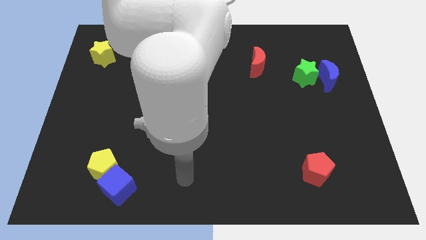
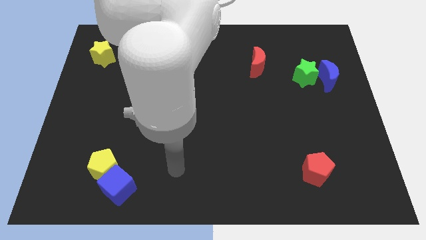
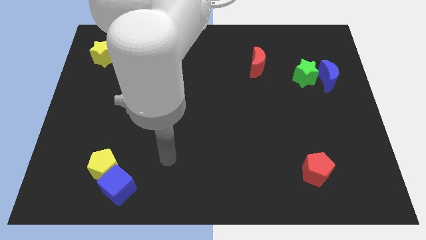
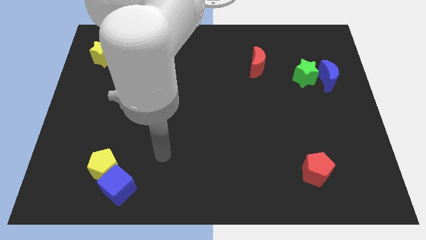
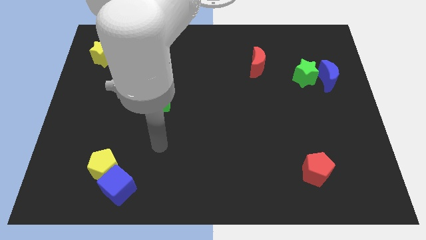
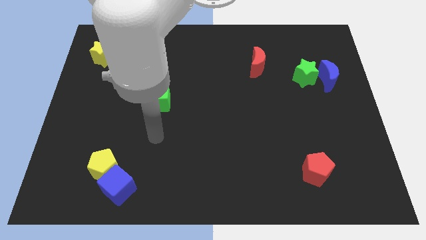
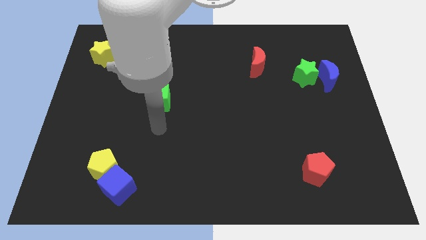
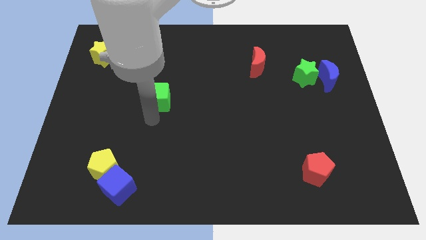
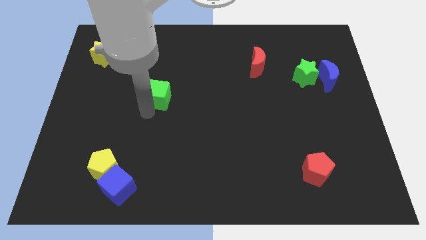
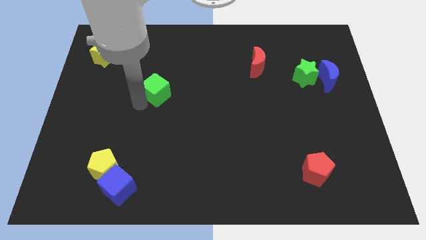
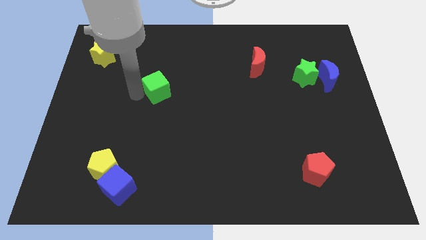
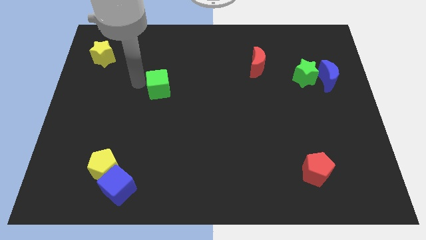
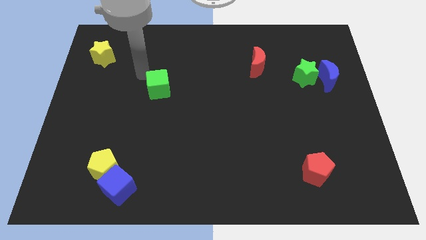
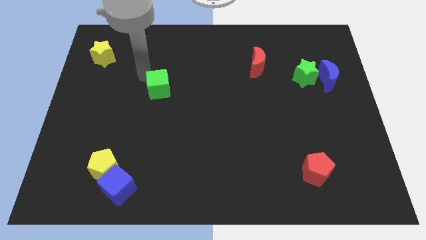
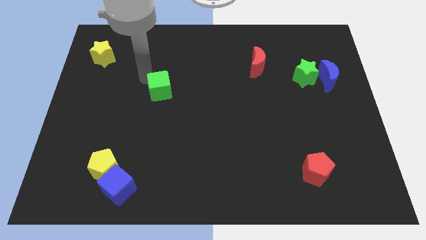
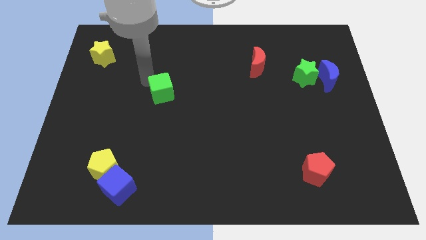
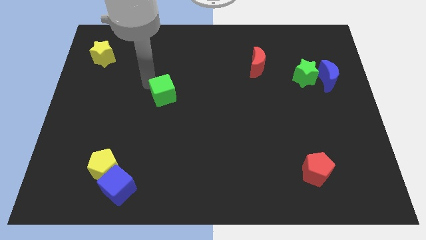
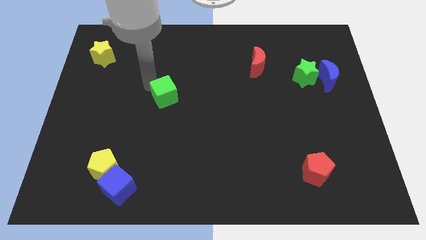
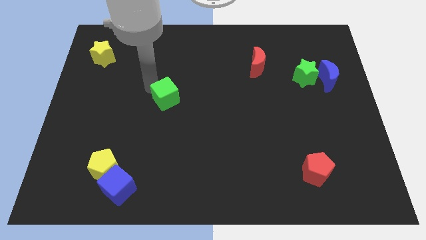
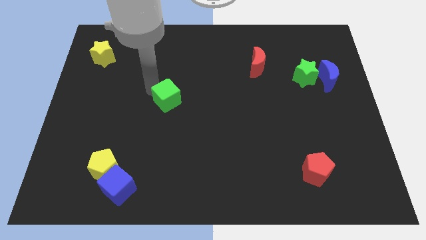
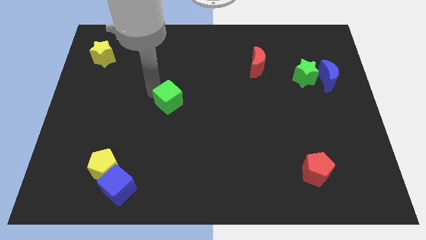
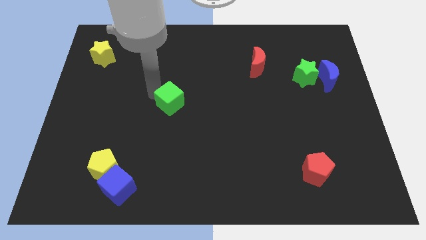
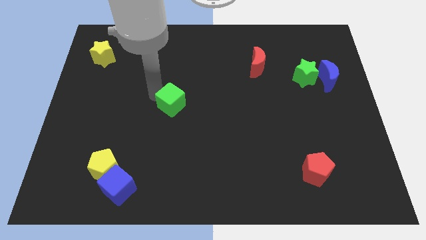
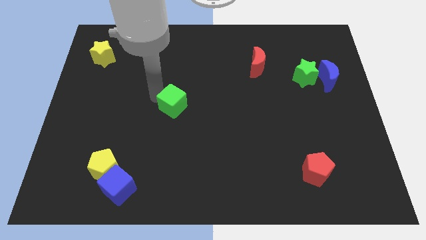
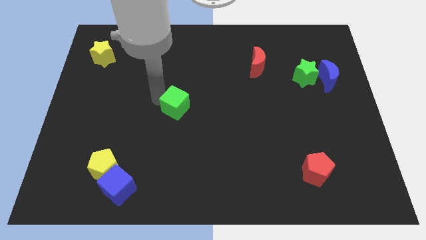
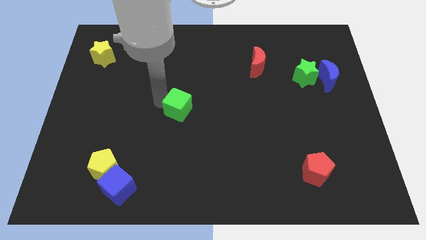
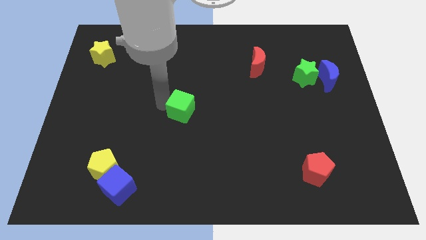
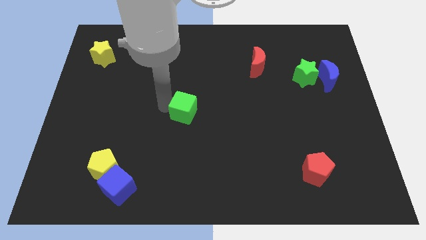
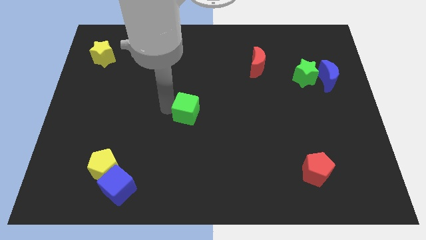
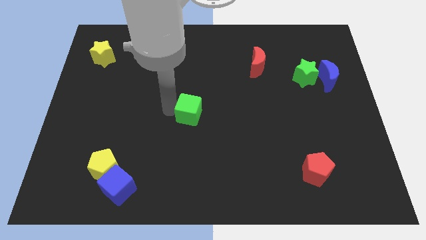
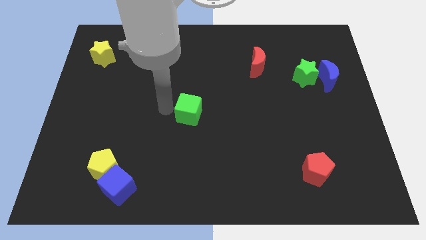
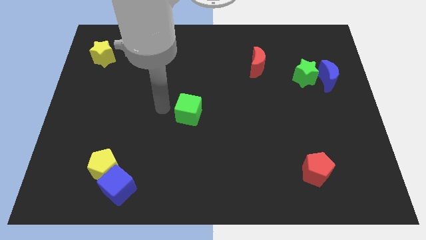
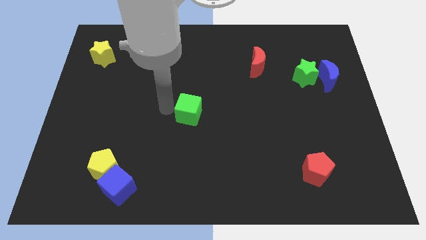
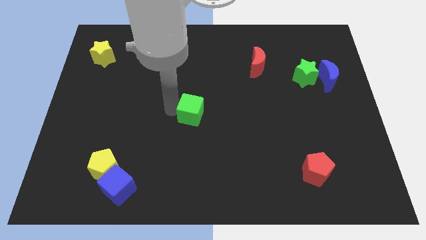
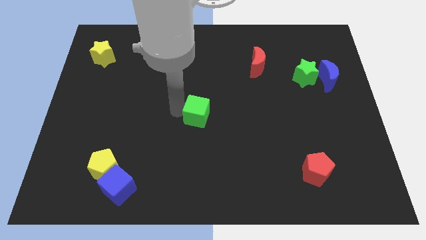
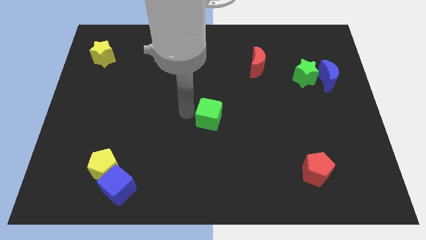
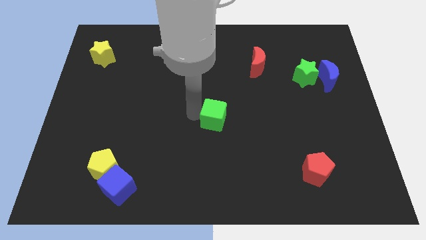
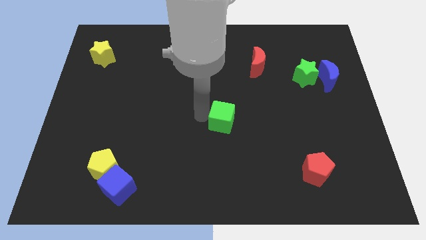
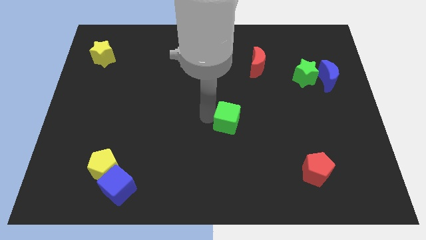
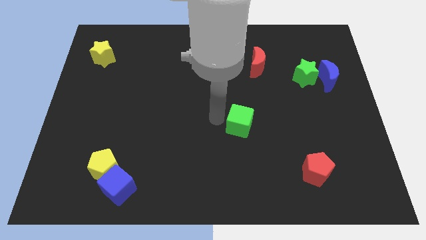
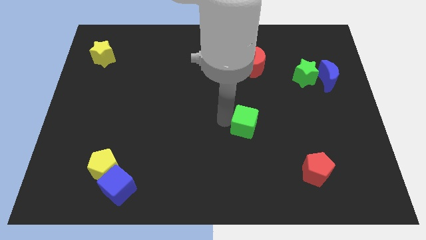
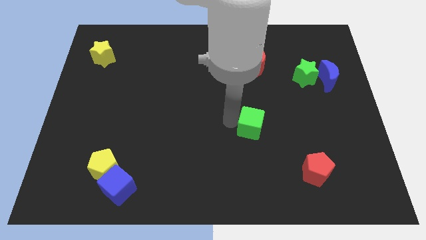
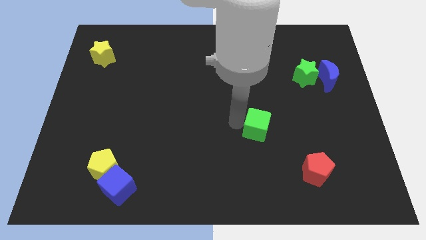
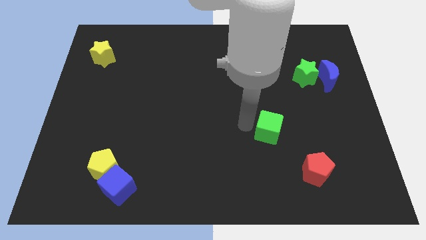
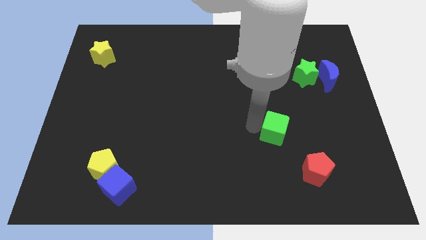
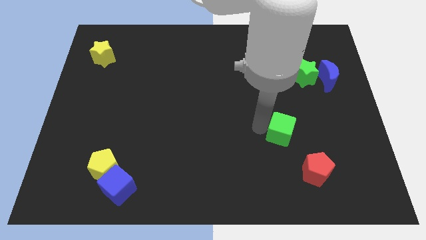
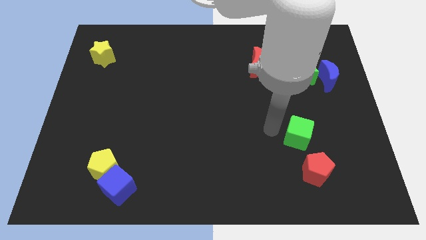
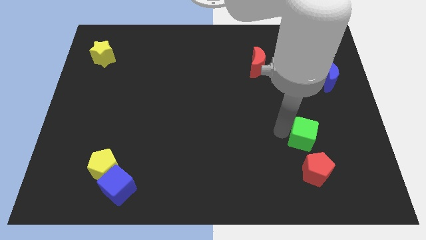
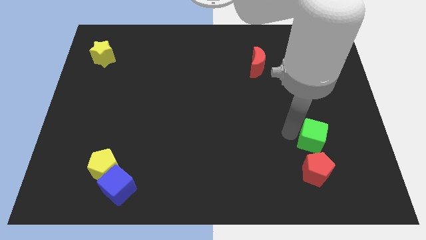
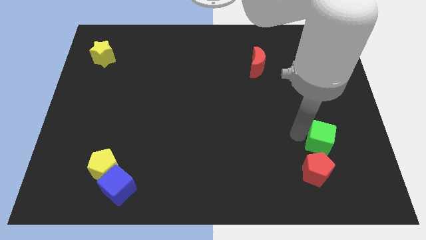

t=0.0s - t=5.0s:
move the green cube to the top right side of the red pentagon

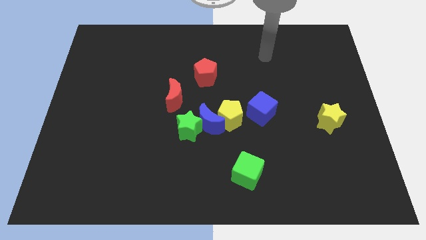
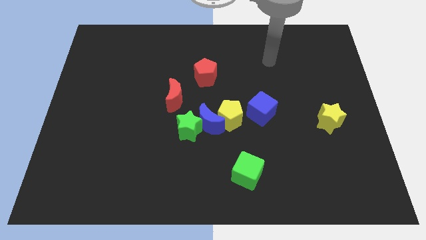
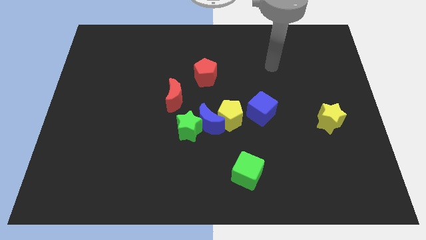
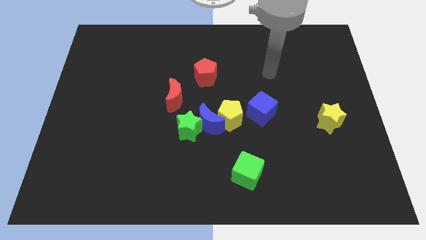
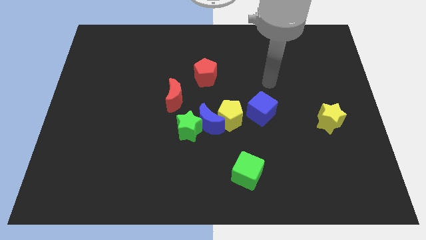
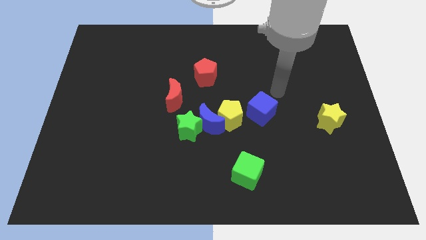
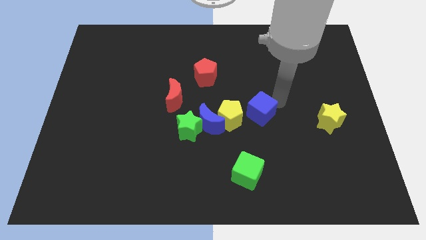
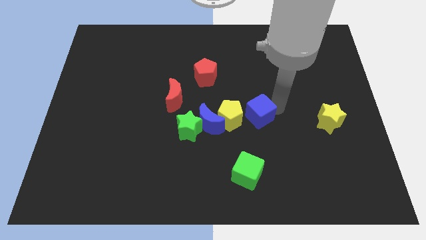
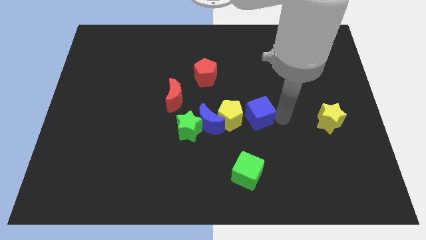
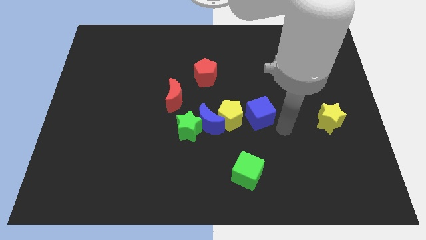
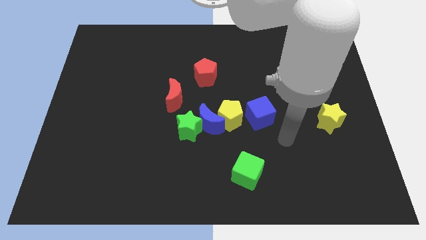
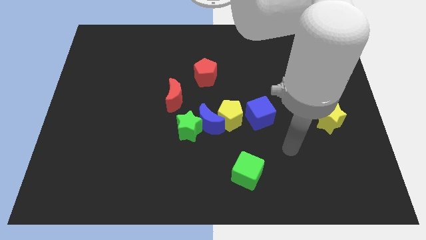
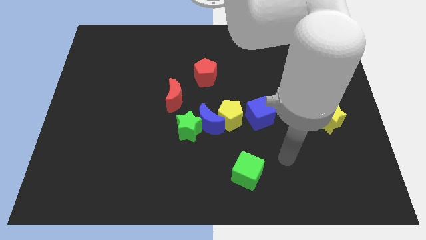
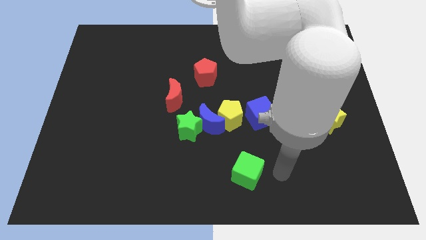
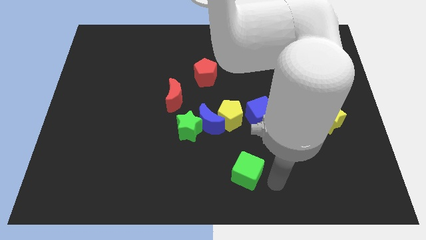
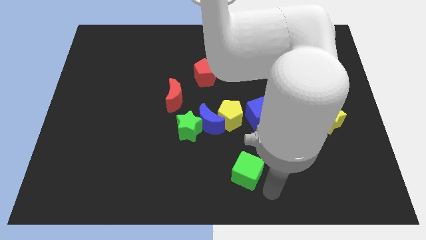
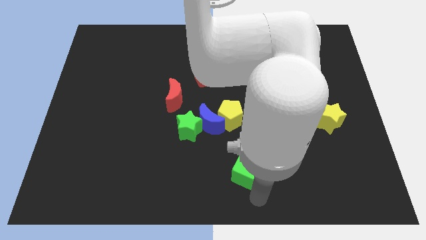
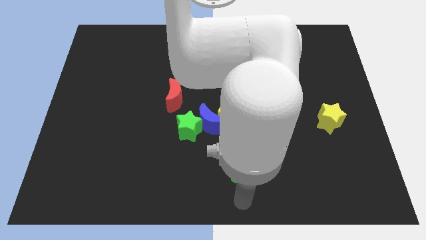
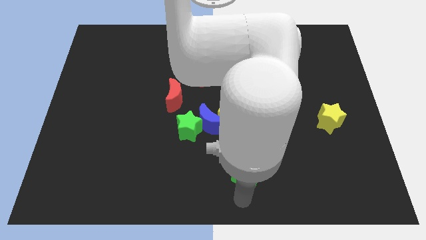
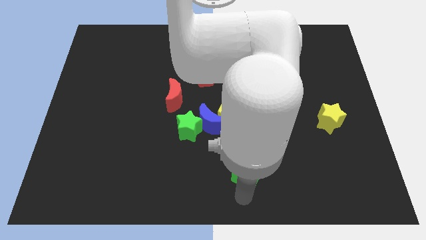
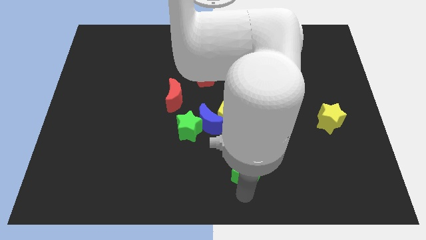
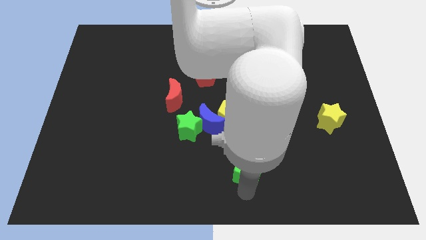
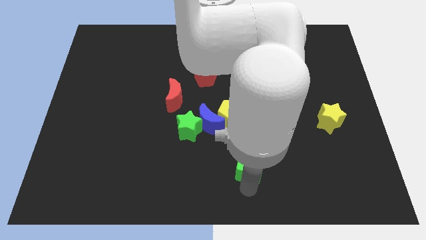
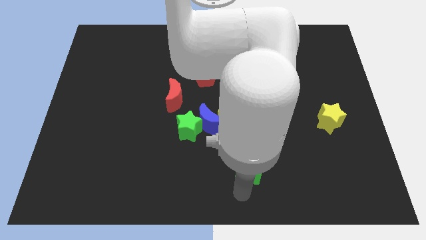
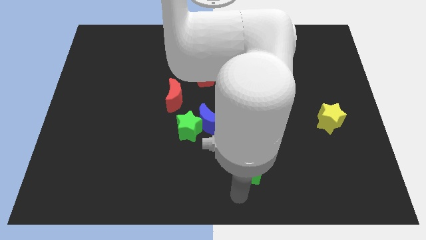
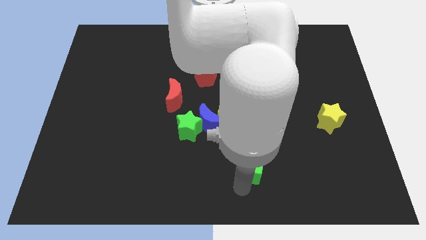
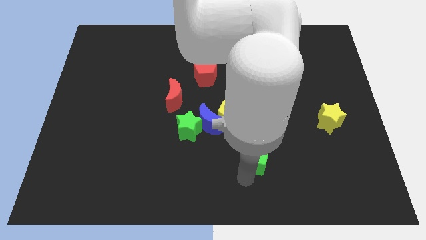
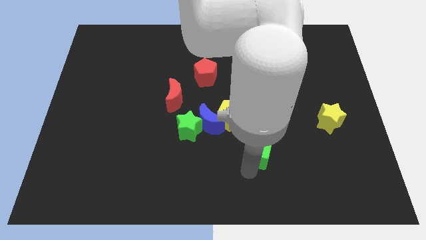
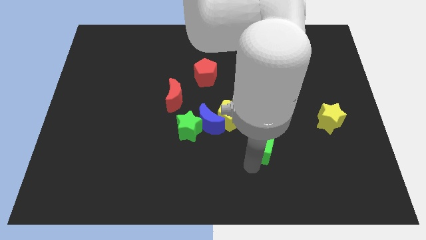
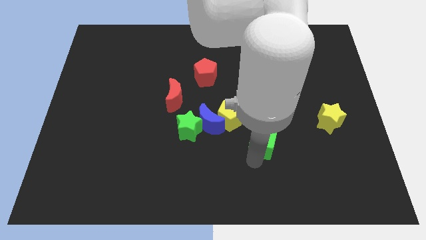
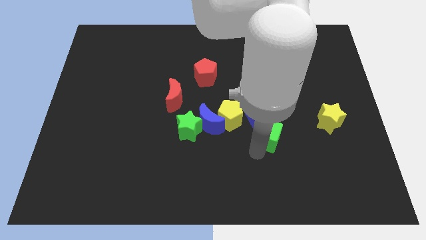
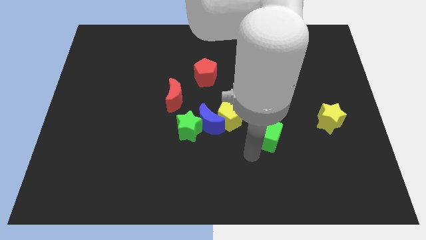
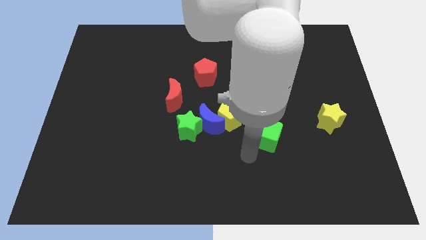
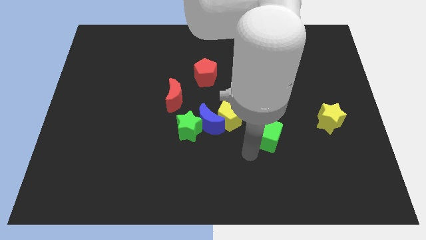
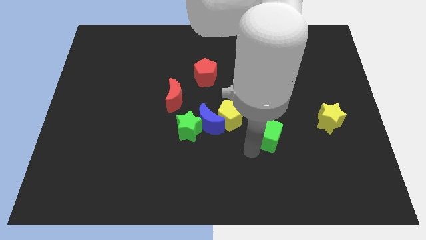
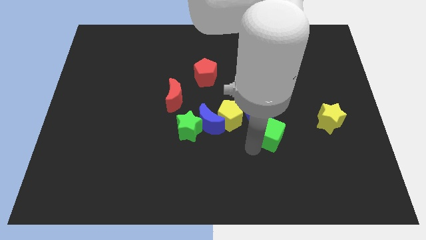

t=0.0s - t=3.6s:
put the green cube to the left side of the yellow star
